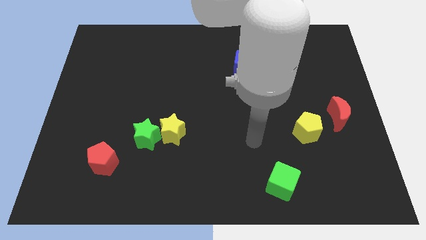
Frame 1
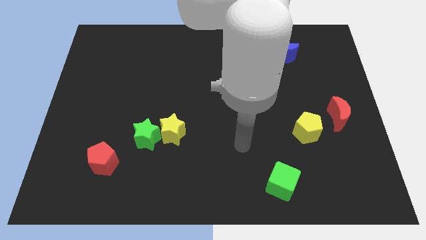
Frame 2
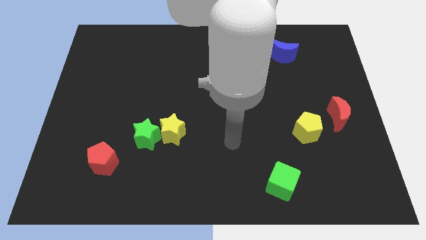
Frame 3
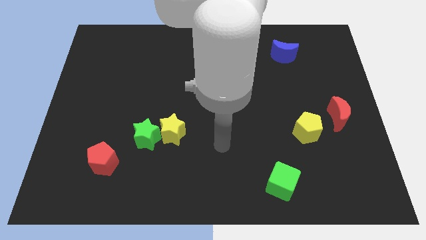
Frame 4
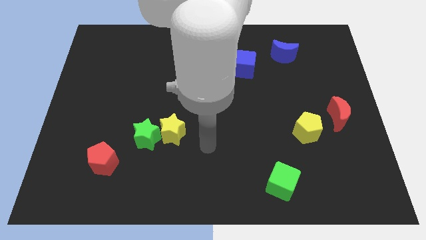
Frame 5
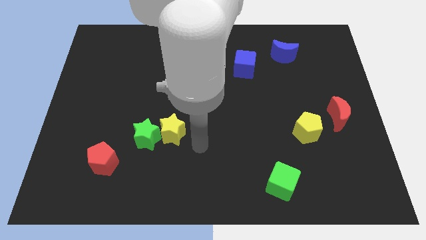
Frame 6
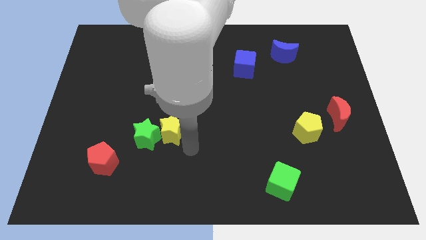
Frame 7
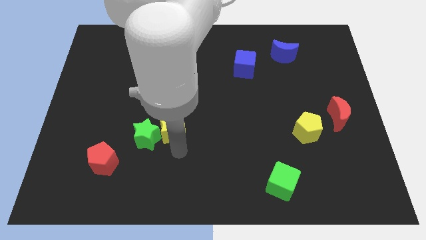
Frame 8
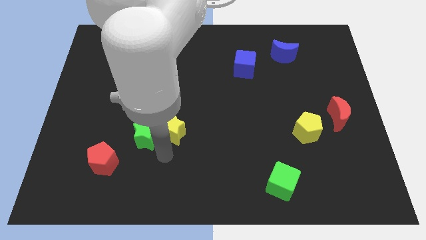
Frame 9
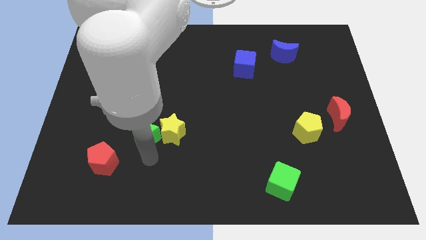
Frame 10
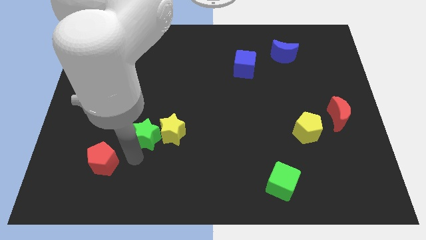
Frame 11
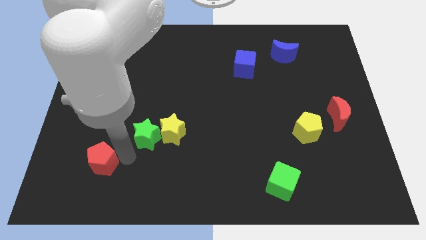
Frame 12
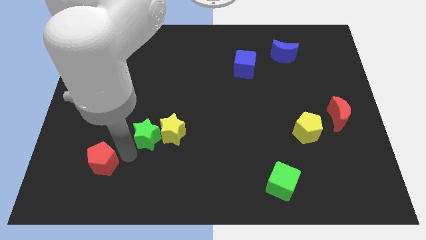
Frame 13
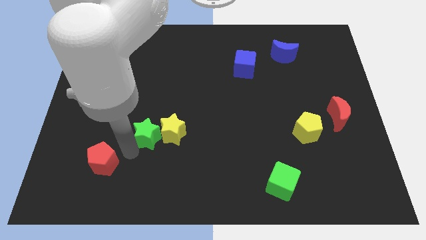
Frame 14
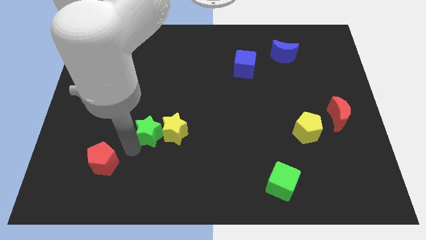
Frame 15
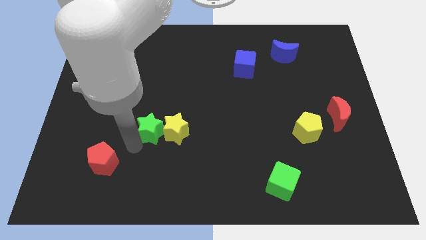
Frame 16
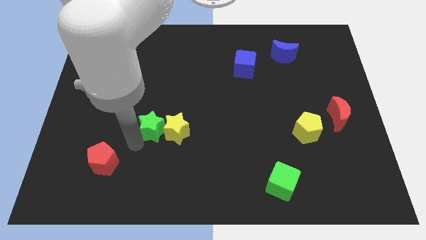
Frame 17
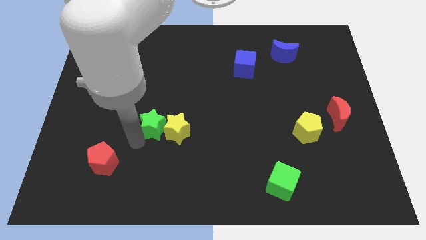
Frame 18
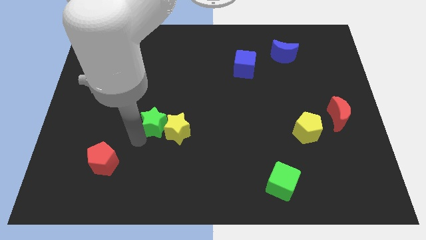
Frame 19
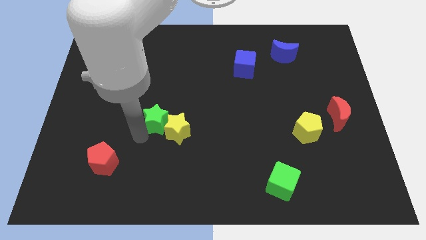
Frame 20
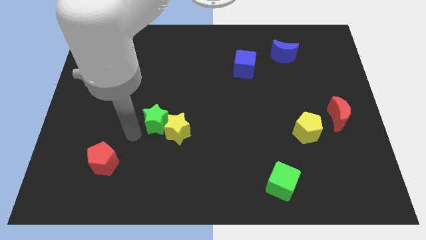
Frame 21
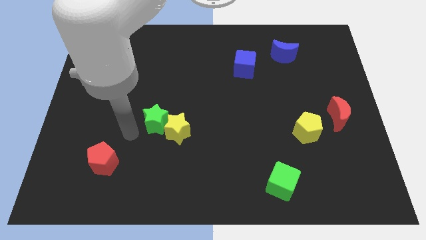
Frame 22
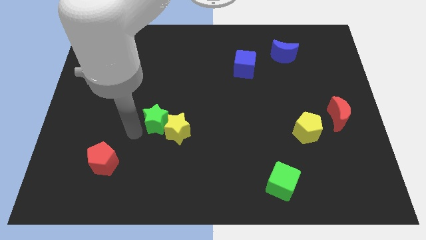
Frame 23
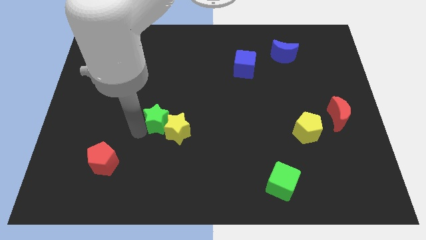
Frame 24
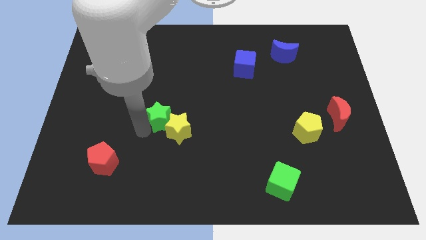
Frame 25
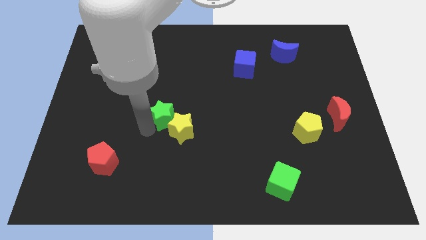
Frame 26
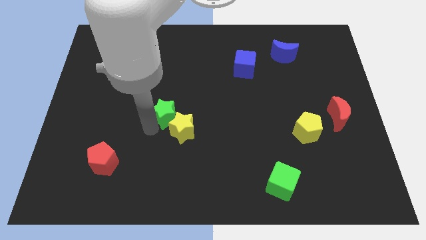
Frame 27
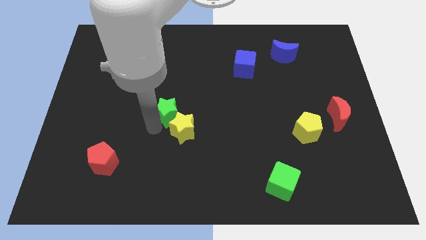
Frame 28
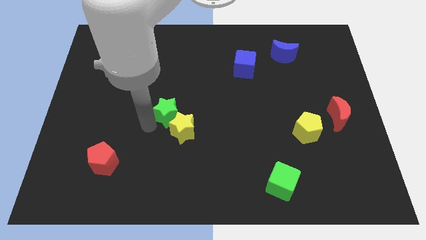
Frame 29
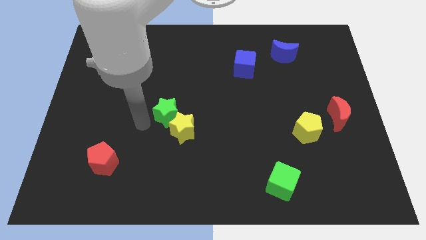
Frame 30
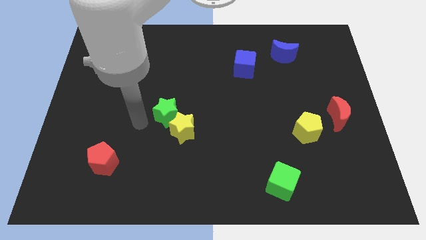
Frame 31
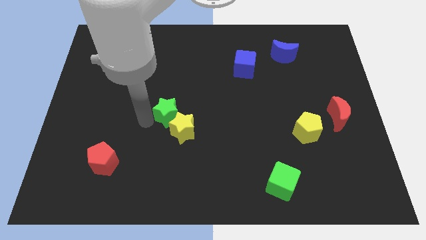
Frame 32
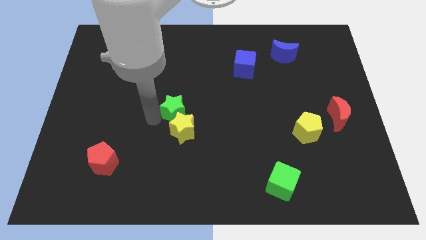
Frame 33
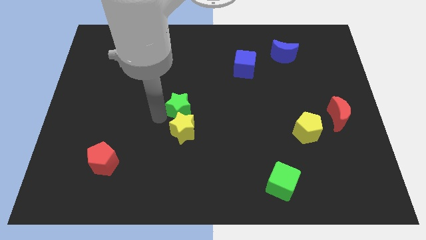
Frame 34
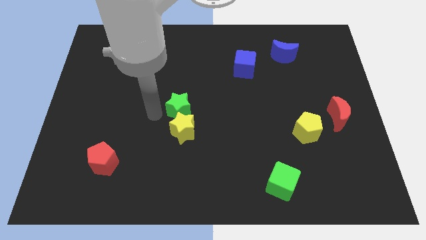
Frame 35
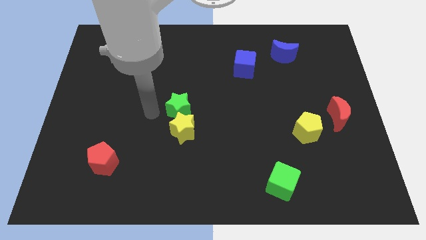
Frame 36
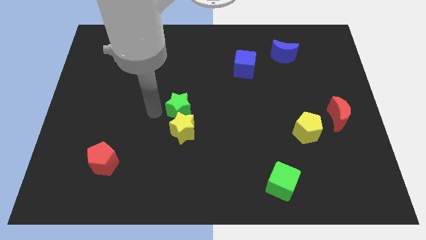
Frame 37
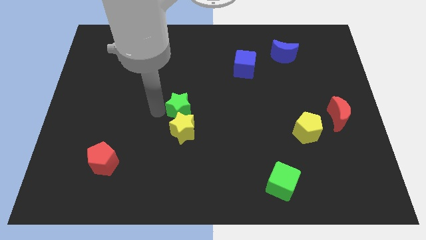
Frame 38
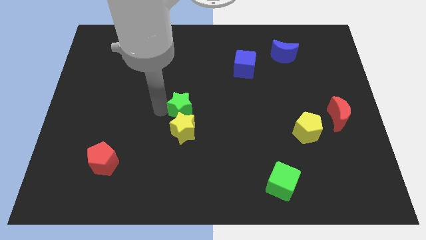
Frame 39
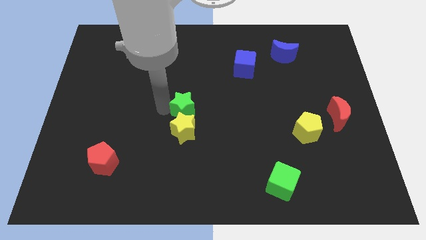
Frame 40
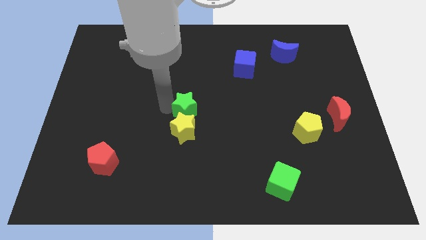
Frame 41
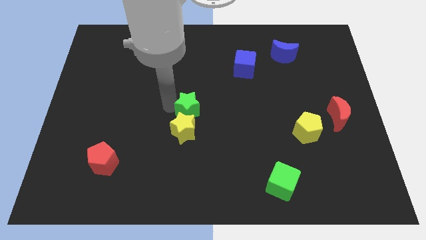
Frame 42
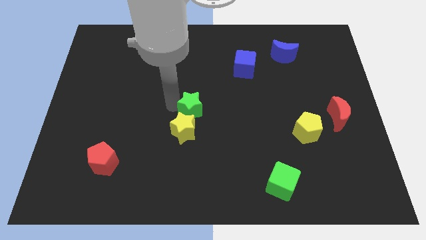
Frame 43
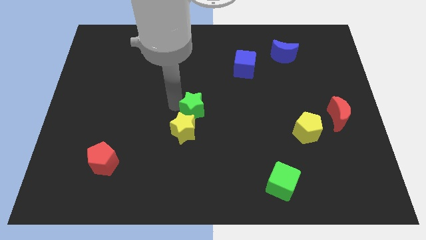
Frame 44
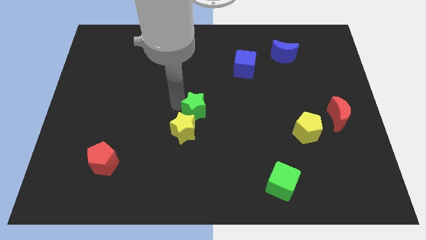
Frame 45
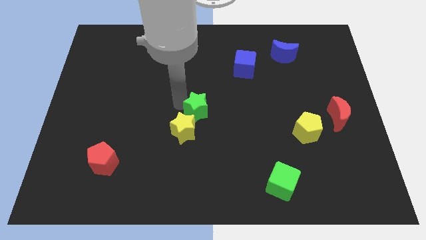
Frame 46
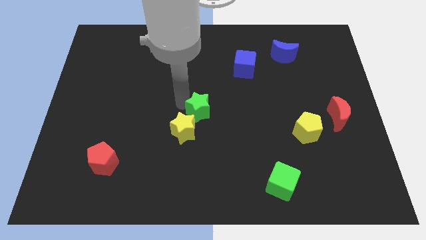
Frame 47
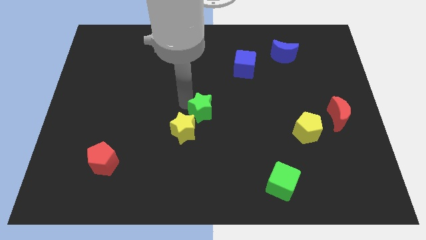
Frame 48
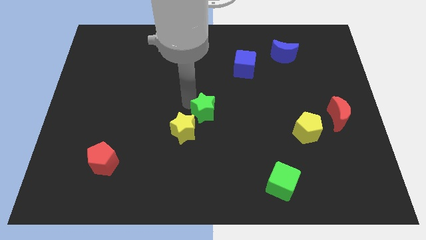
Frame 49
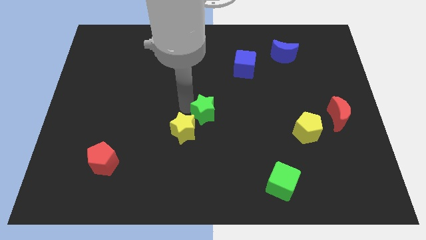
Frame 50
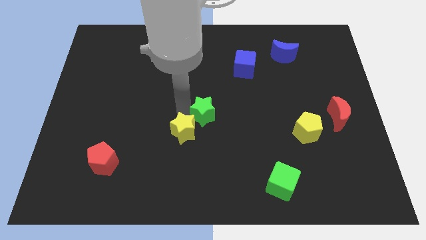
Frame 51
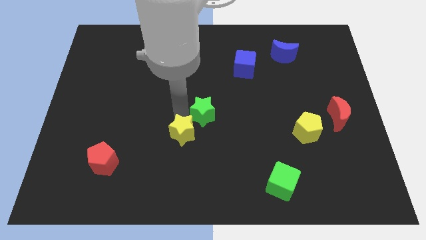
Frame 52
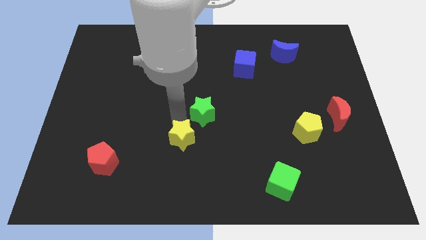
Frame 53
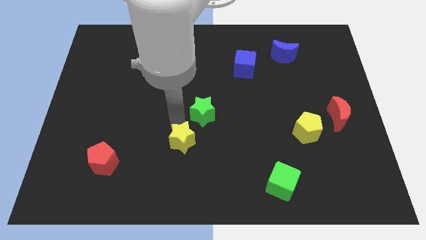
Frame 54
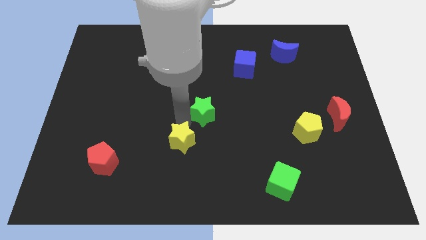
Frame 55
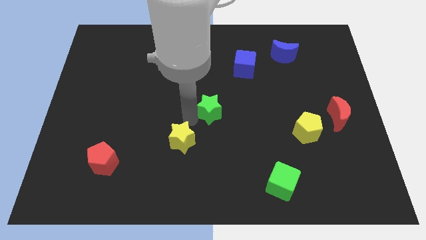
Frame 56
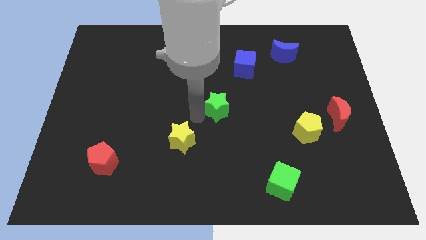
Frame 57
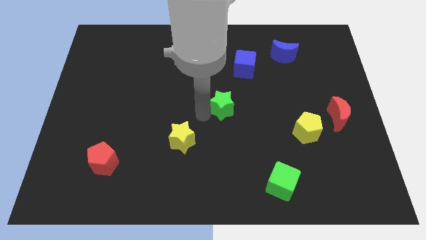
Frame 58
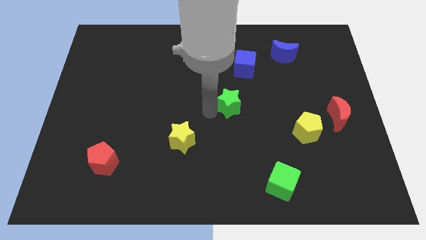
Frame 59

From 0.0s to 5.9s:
slide the green star below the blue cube
